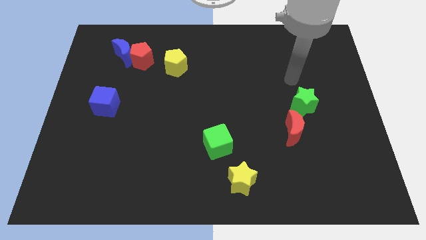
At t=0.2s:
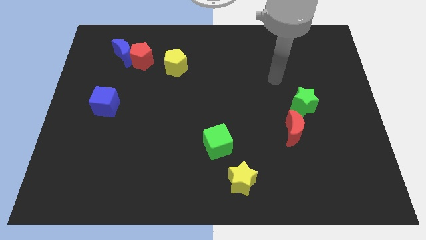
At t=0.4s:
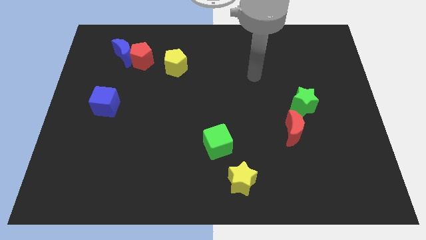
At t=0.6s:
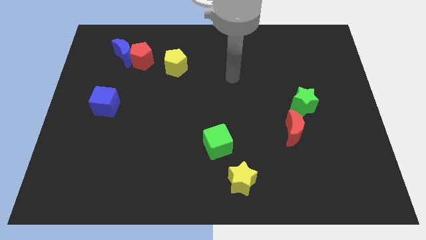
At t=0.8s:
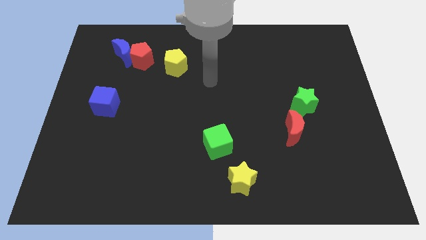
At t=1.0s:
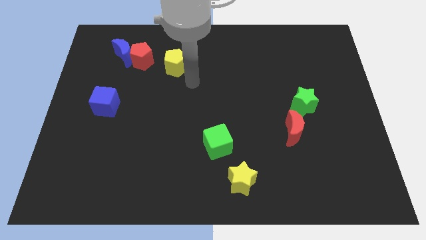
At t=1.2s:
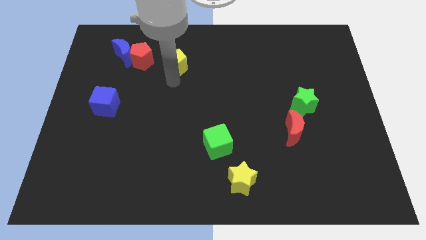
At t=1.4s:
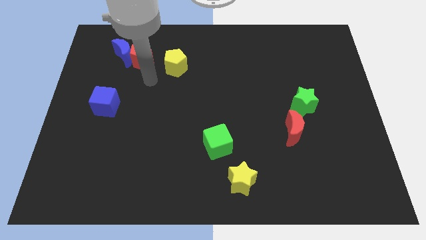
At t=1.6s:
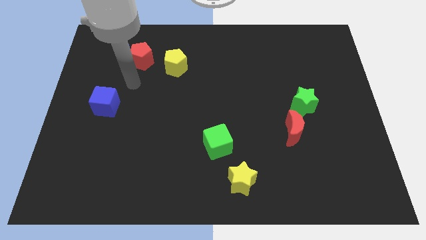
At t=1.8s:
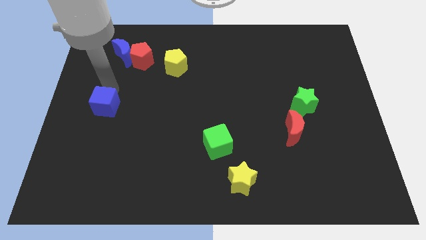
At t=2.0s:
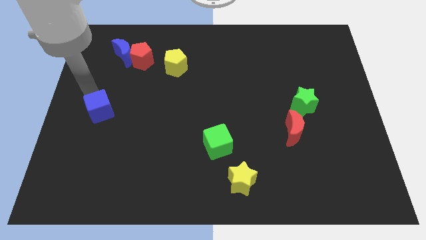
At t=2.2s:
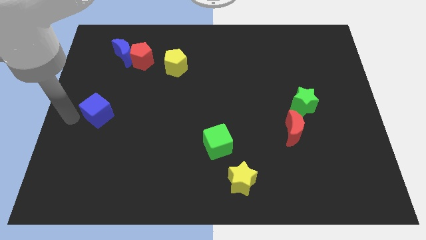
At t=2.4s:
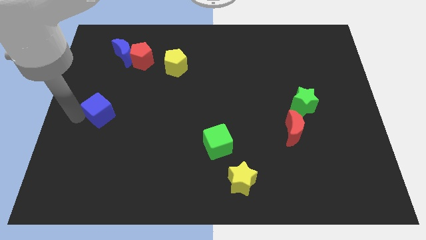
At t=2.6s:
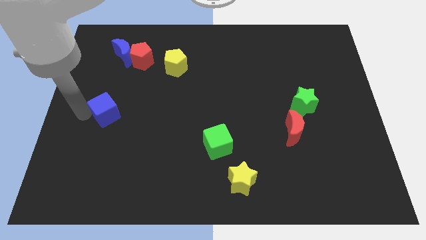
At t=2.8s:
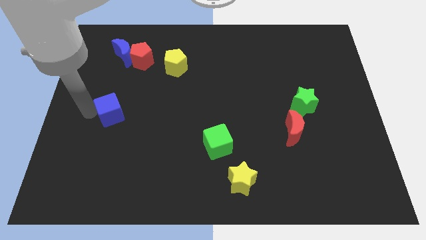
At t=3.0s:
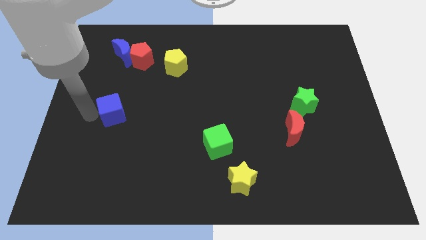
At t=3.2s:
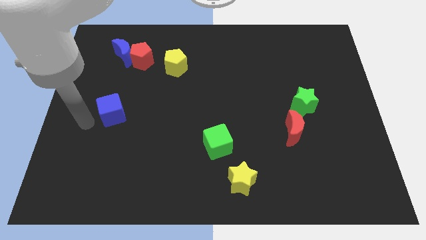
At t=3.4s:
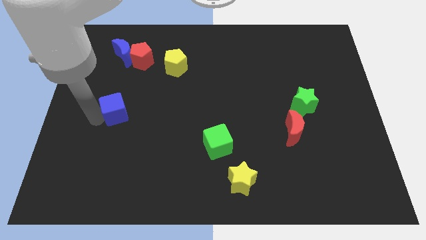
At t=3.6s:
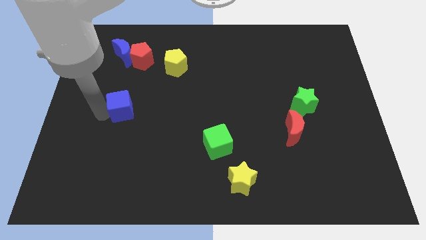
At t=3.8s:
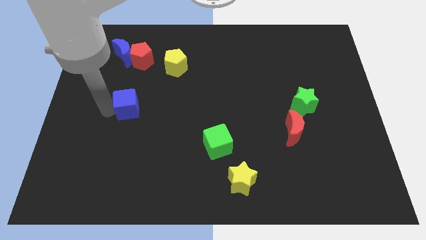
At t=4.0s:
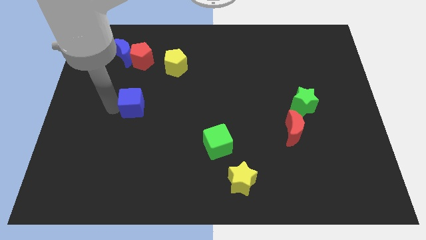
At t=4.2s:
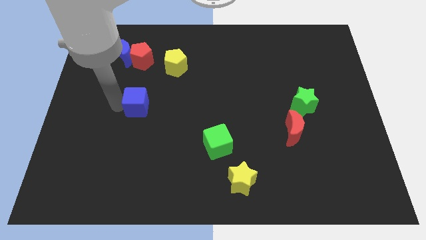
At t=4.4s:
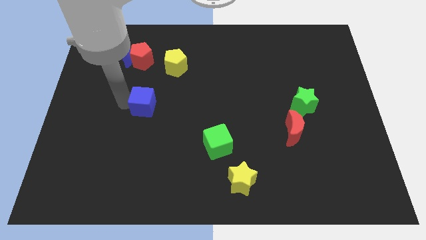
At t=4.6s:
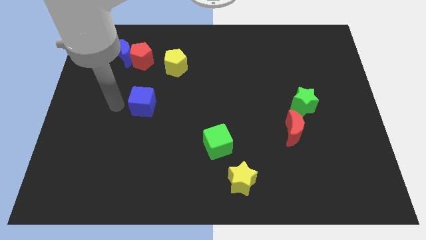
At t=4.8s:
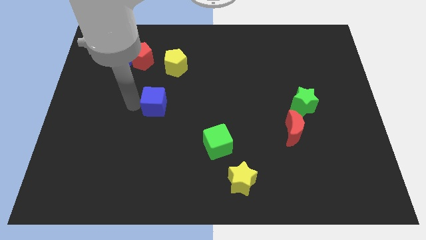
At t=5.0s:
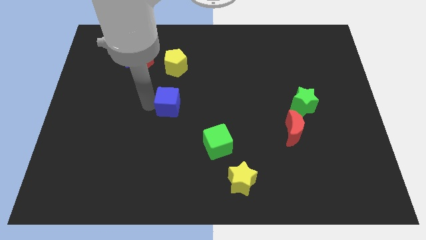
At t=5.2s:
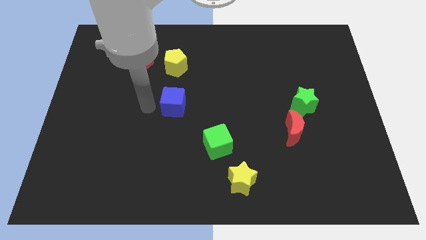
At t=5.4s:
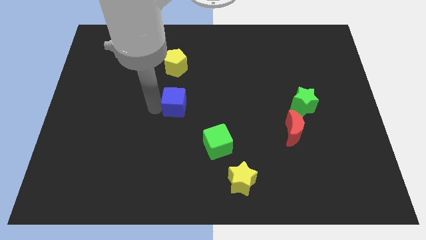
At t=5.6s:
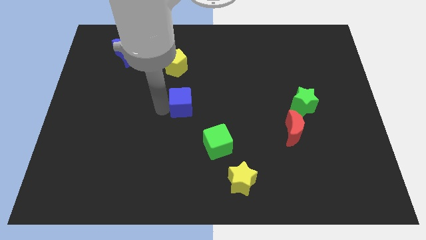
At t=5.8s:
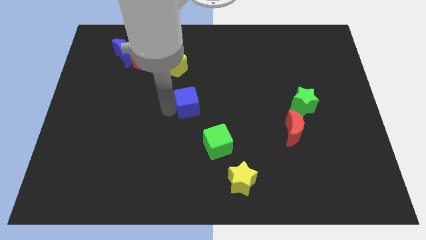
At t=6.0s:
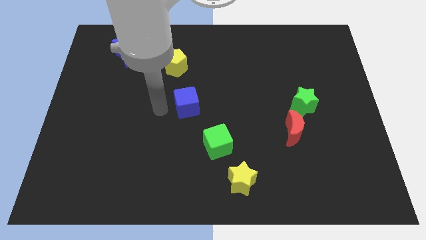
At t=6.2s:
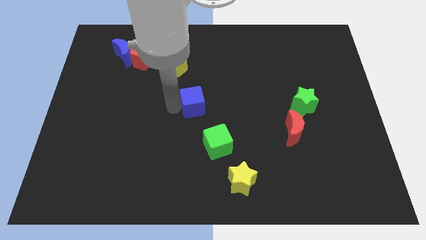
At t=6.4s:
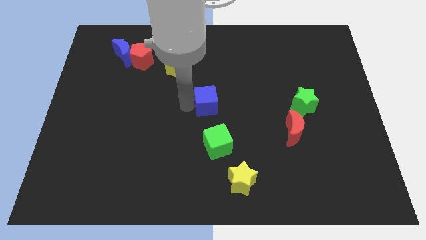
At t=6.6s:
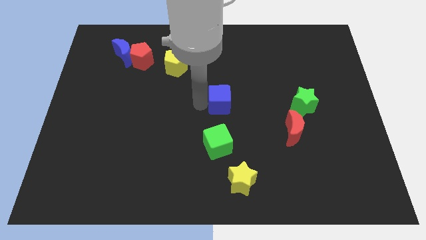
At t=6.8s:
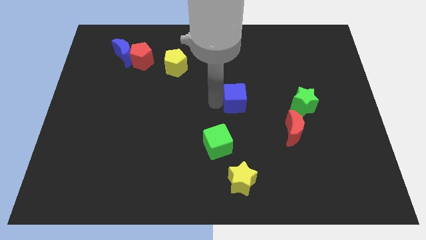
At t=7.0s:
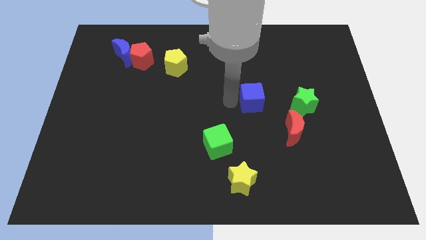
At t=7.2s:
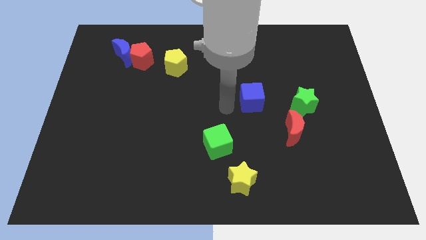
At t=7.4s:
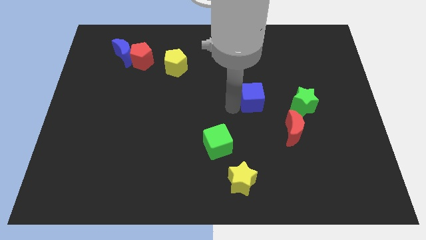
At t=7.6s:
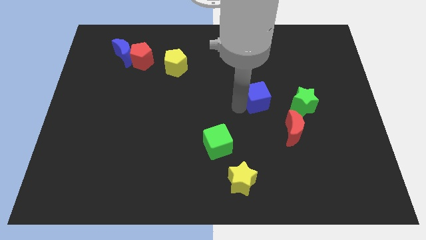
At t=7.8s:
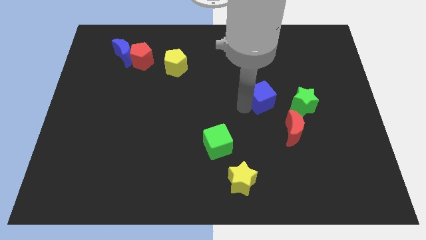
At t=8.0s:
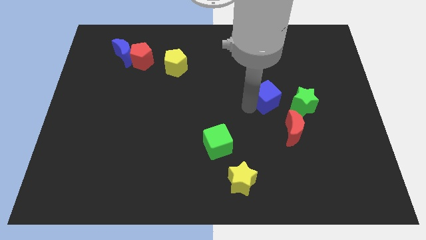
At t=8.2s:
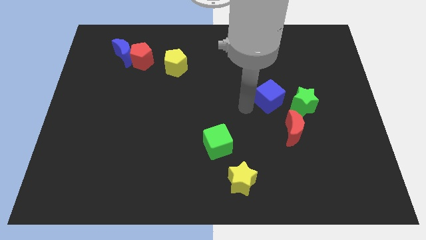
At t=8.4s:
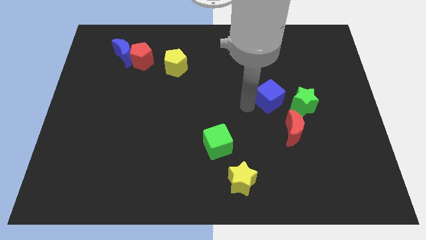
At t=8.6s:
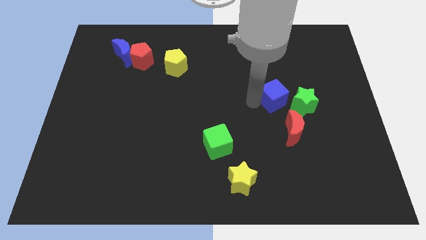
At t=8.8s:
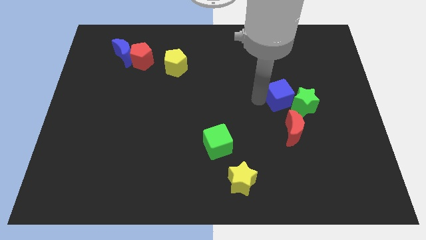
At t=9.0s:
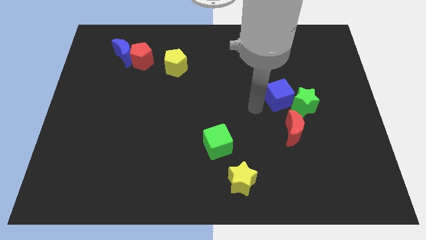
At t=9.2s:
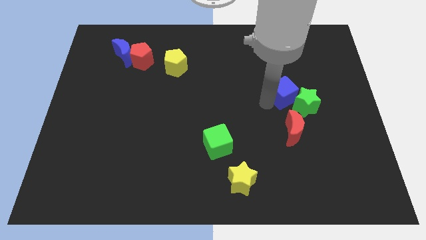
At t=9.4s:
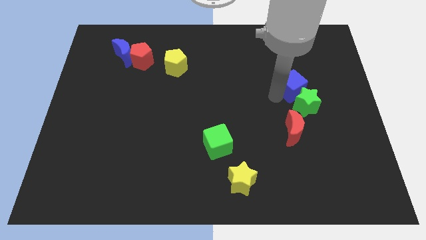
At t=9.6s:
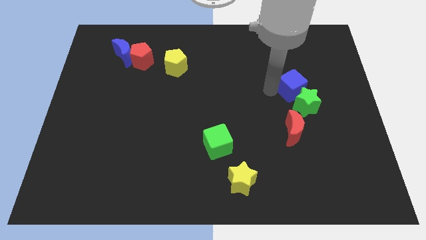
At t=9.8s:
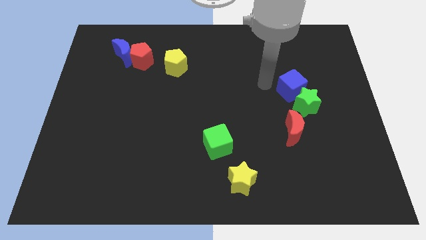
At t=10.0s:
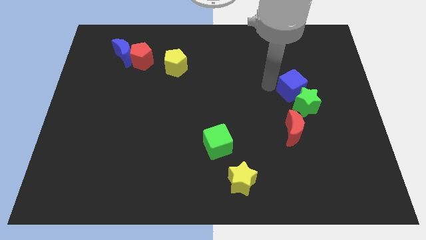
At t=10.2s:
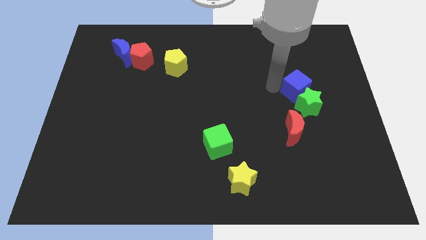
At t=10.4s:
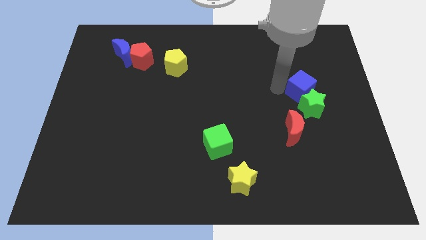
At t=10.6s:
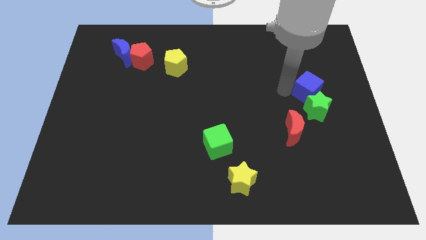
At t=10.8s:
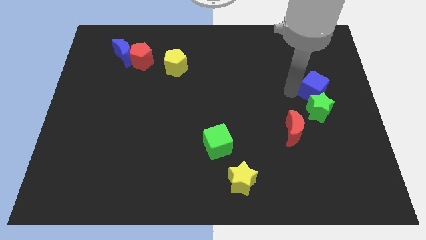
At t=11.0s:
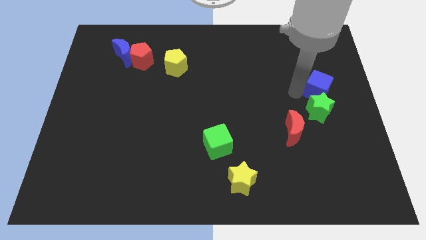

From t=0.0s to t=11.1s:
push the blue cube to the right side

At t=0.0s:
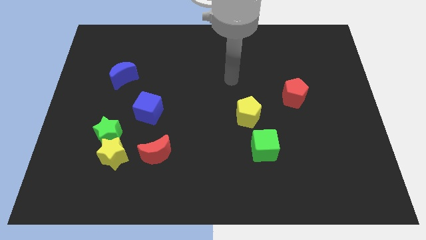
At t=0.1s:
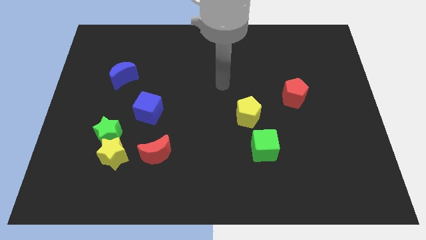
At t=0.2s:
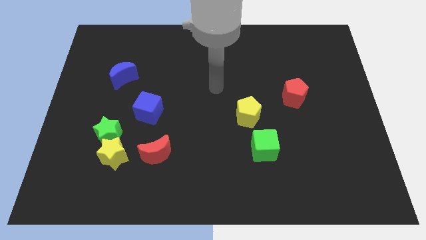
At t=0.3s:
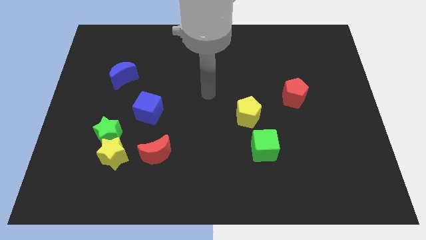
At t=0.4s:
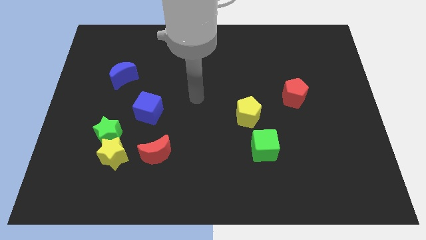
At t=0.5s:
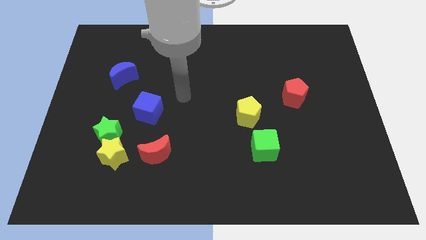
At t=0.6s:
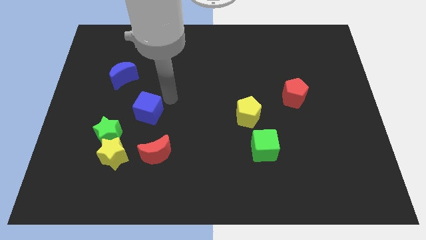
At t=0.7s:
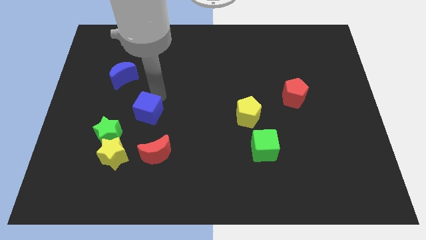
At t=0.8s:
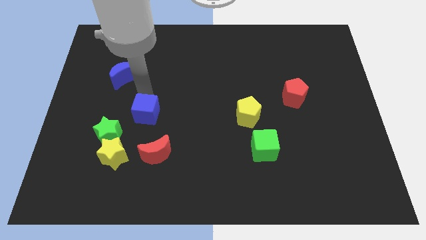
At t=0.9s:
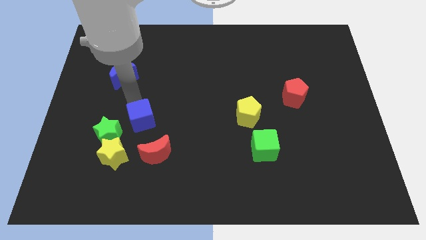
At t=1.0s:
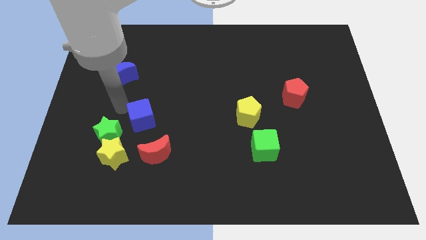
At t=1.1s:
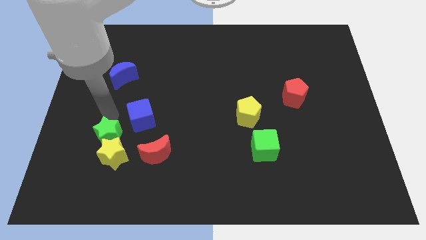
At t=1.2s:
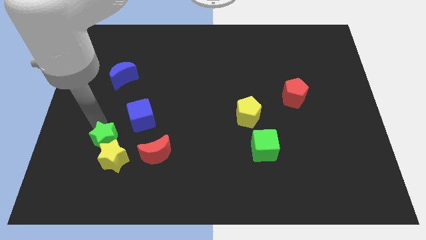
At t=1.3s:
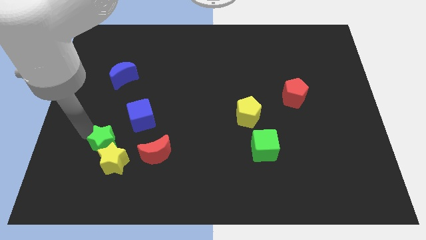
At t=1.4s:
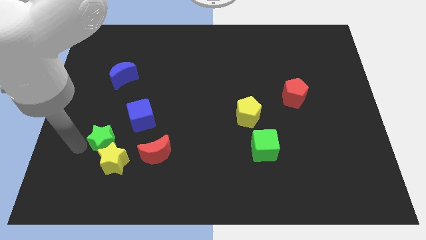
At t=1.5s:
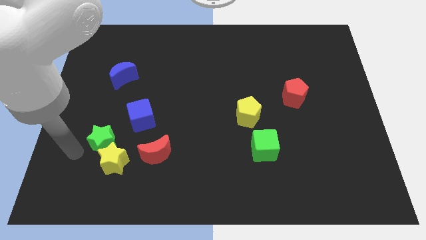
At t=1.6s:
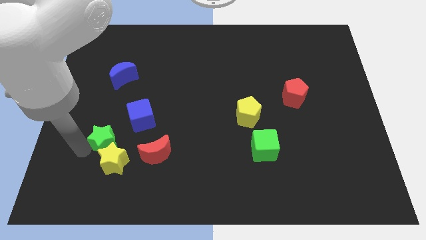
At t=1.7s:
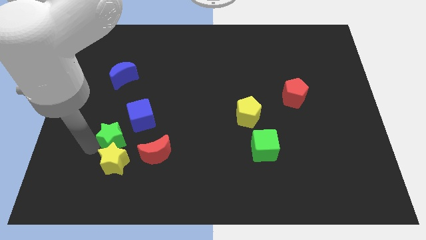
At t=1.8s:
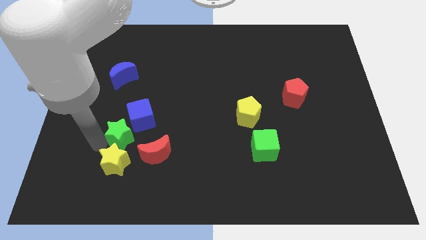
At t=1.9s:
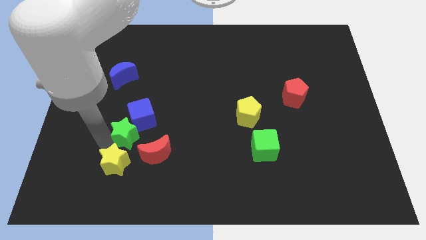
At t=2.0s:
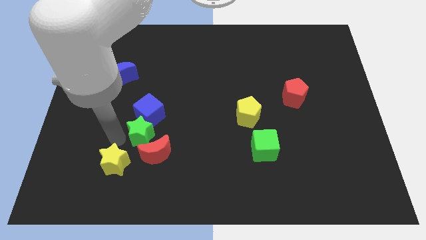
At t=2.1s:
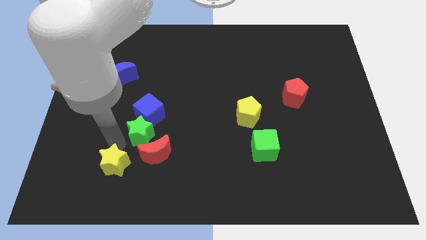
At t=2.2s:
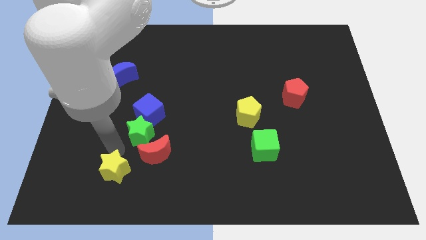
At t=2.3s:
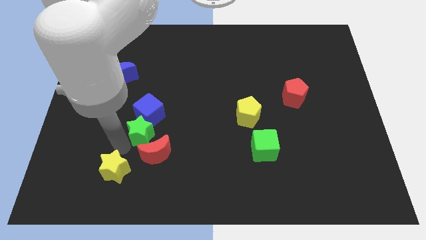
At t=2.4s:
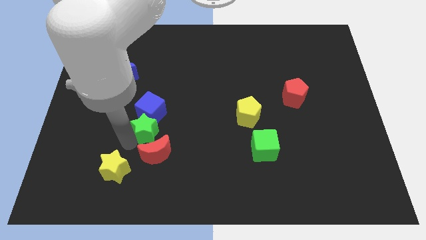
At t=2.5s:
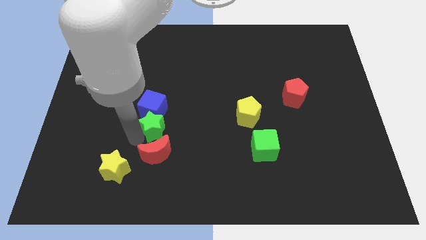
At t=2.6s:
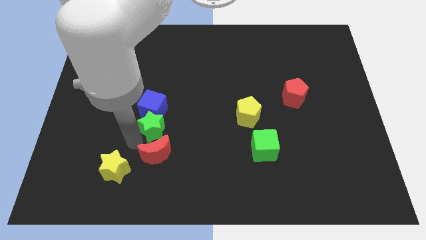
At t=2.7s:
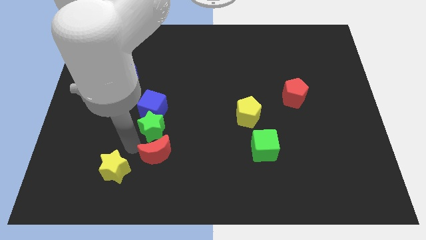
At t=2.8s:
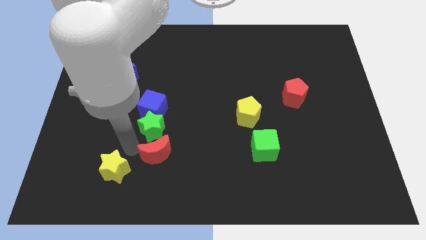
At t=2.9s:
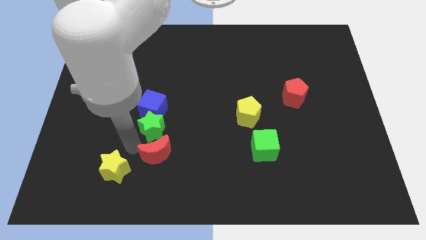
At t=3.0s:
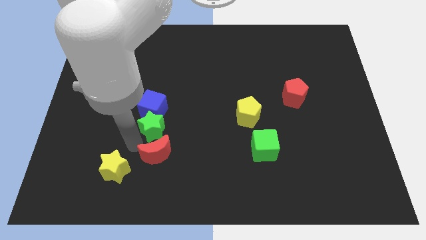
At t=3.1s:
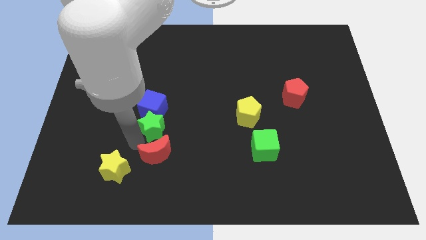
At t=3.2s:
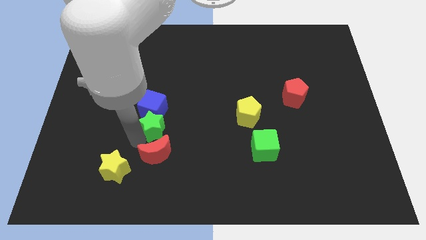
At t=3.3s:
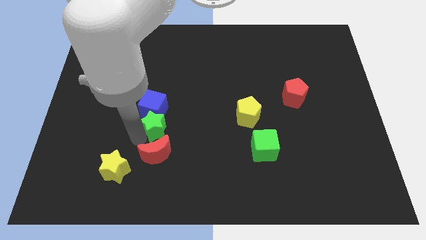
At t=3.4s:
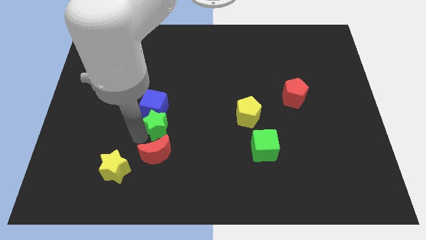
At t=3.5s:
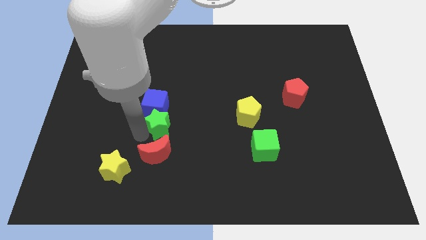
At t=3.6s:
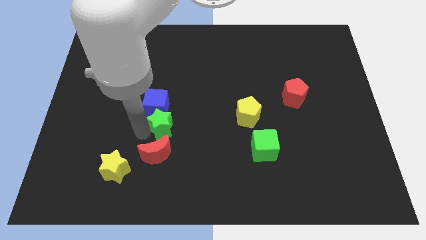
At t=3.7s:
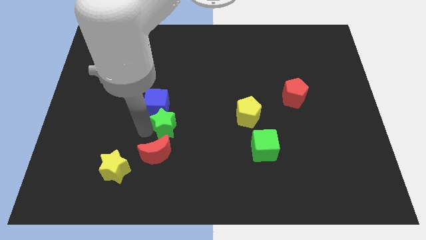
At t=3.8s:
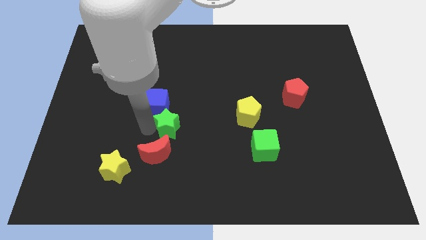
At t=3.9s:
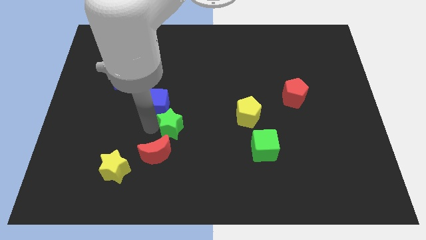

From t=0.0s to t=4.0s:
slide the green star to the middle
